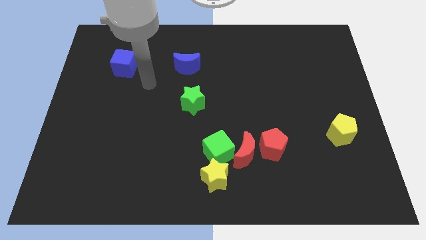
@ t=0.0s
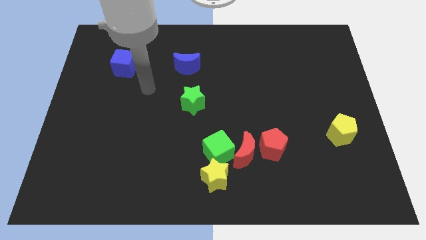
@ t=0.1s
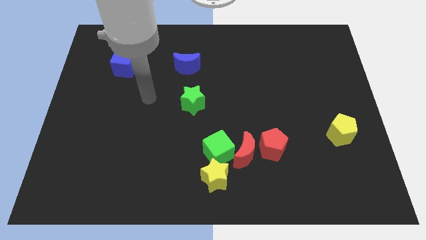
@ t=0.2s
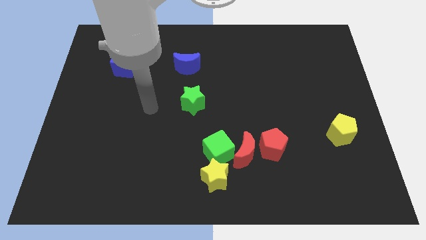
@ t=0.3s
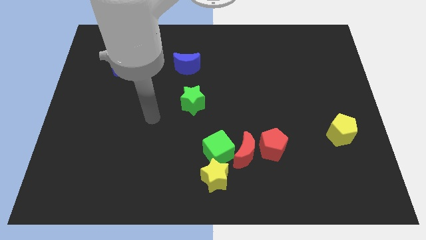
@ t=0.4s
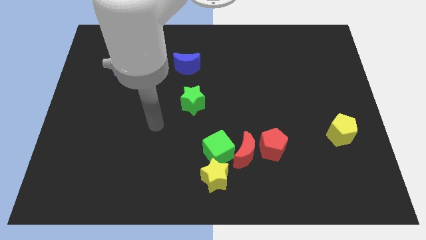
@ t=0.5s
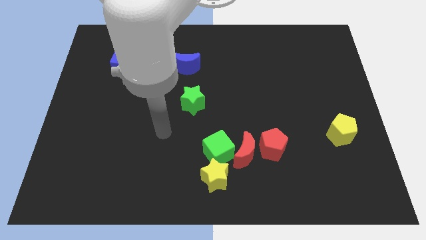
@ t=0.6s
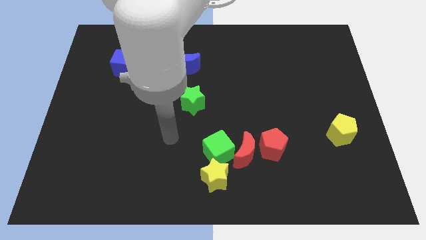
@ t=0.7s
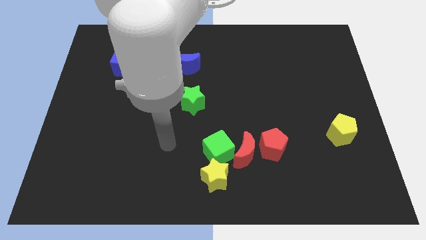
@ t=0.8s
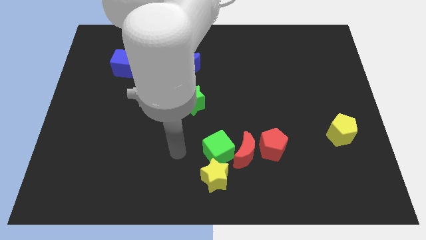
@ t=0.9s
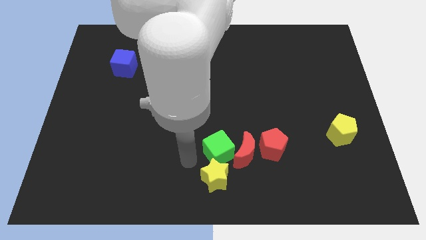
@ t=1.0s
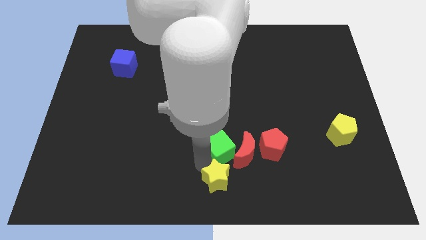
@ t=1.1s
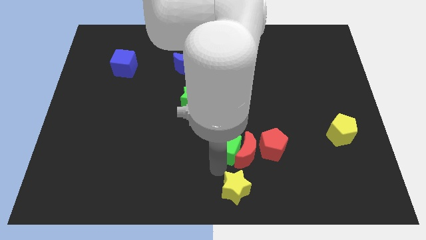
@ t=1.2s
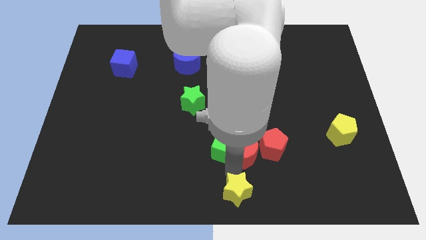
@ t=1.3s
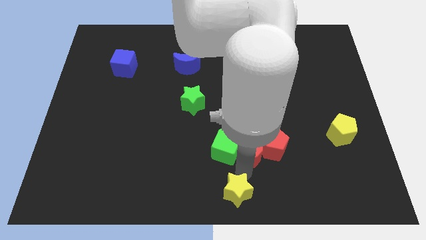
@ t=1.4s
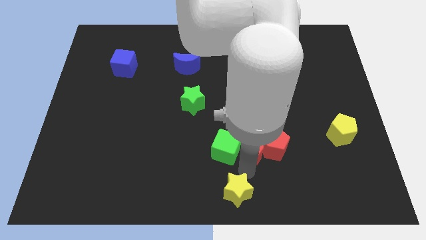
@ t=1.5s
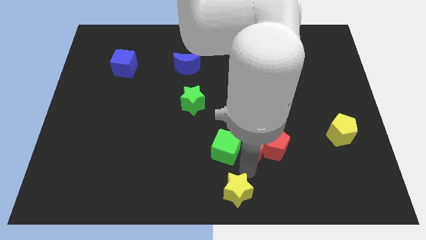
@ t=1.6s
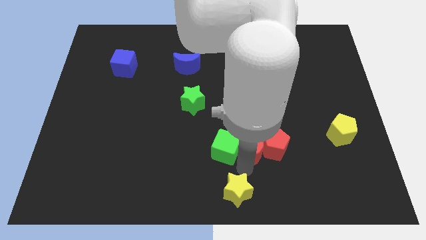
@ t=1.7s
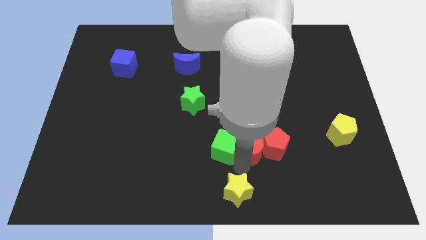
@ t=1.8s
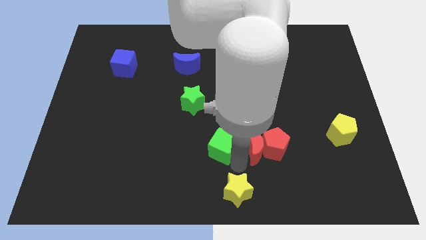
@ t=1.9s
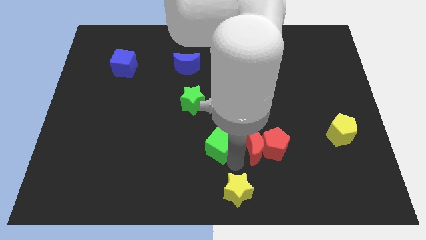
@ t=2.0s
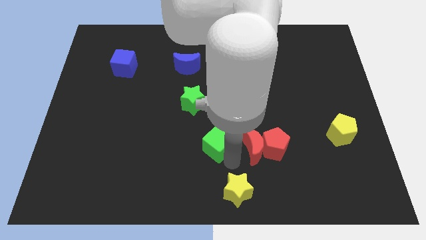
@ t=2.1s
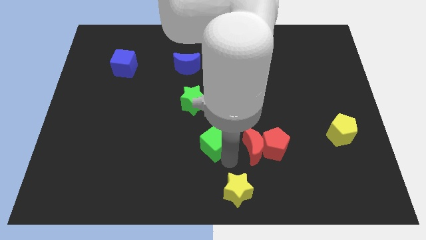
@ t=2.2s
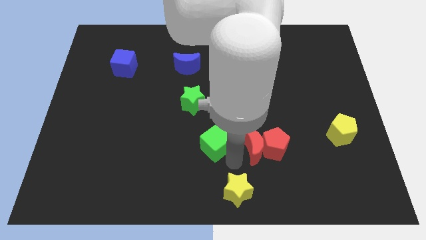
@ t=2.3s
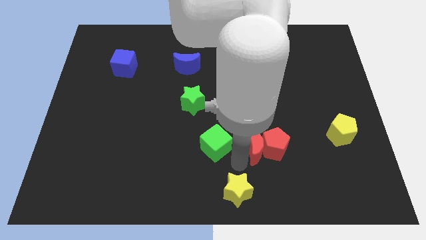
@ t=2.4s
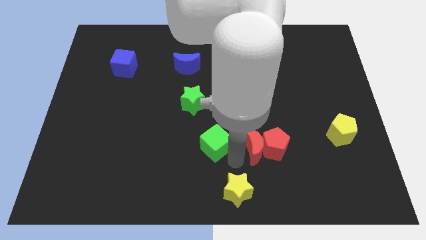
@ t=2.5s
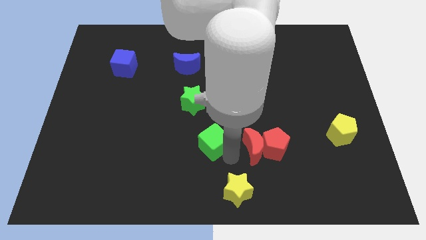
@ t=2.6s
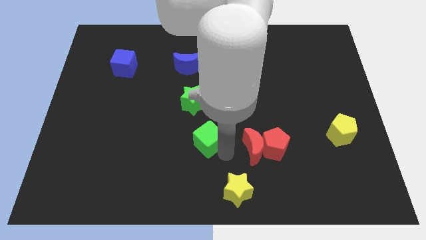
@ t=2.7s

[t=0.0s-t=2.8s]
move the green cube away from the red moon and yellow star

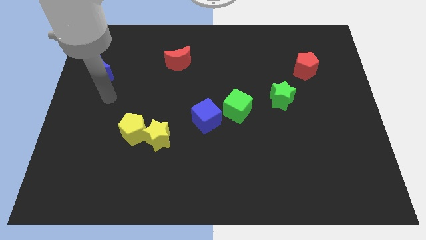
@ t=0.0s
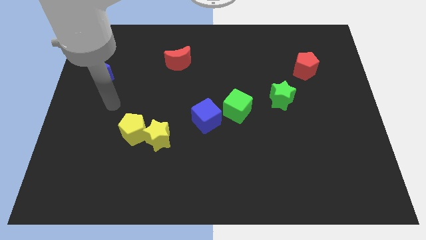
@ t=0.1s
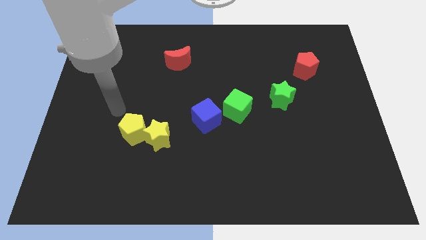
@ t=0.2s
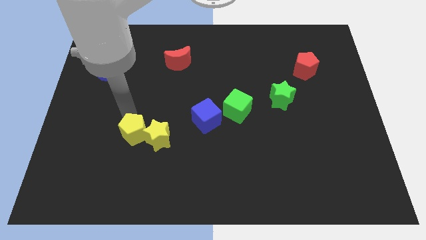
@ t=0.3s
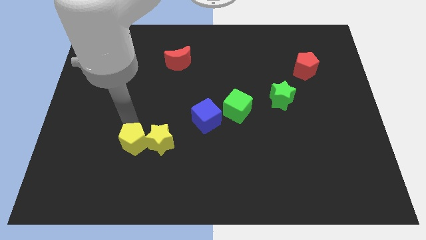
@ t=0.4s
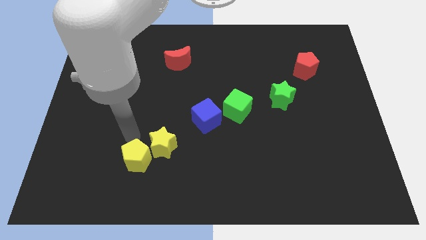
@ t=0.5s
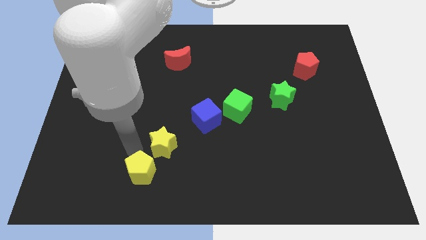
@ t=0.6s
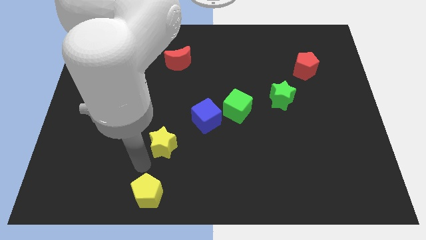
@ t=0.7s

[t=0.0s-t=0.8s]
pull the yellow star apart from the yellow pentagon

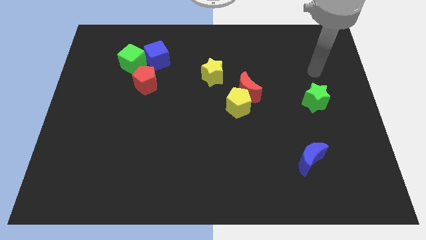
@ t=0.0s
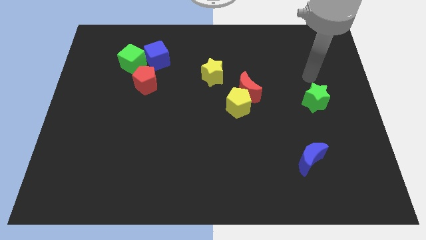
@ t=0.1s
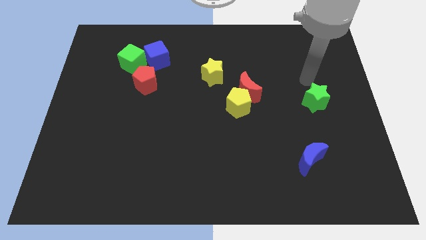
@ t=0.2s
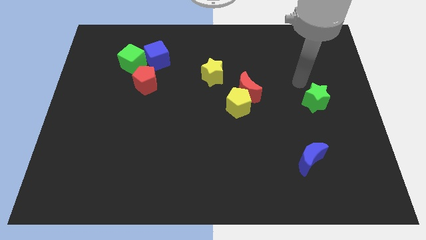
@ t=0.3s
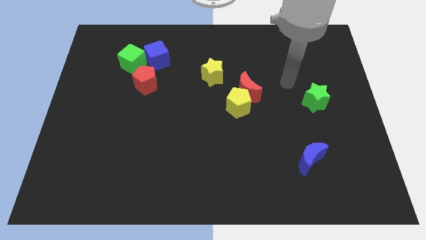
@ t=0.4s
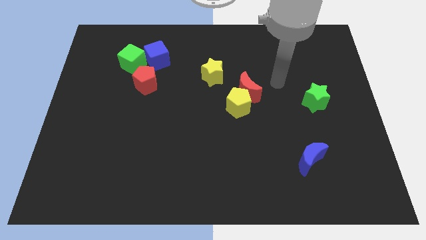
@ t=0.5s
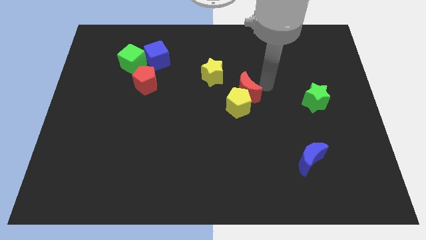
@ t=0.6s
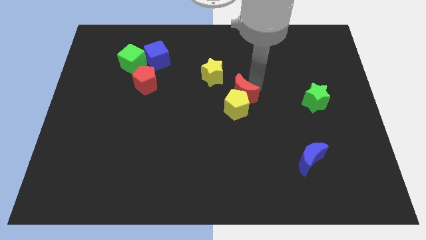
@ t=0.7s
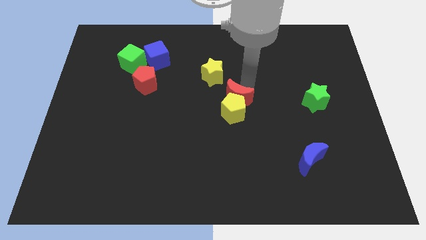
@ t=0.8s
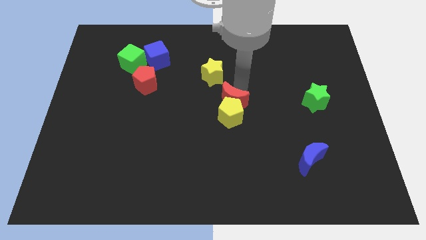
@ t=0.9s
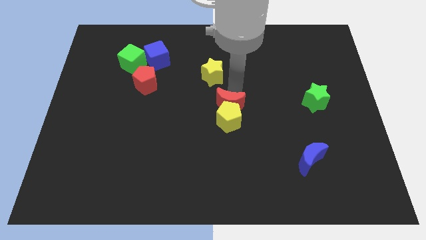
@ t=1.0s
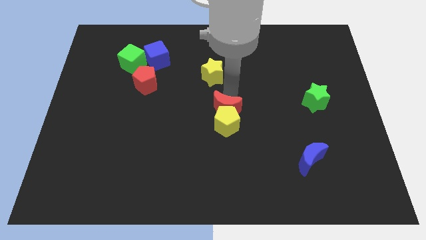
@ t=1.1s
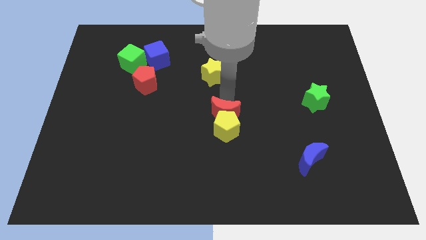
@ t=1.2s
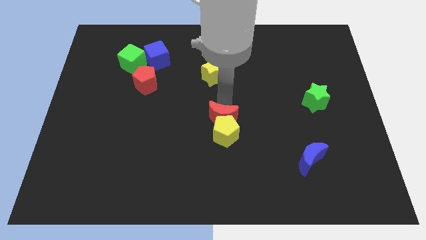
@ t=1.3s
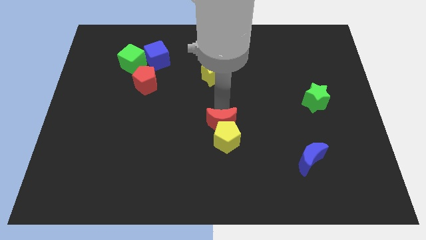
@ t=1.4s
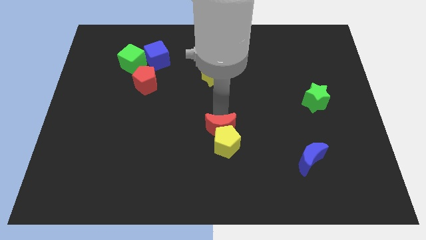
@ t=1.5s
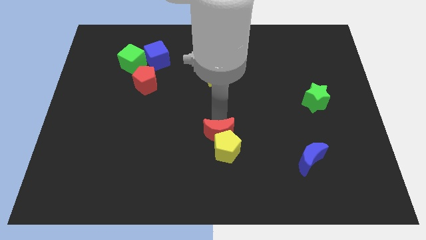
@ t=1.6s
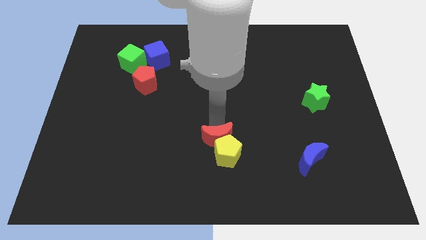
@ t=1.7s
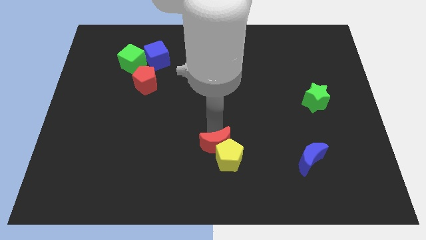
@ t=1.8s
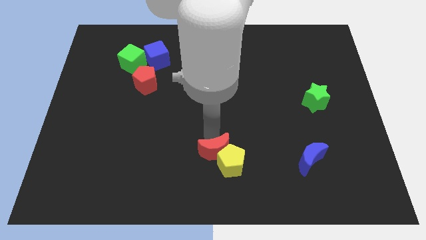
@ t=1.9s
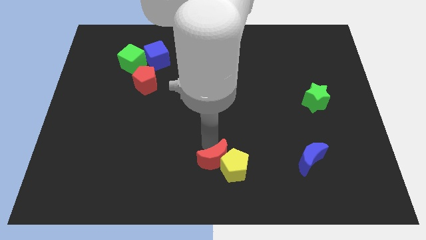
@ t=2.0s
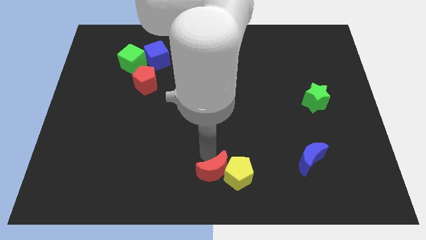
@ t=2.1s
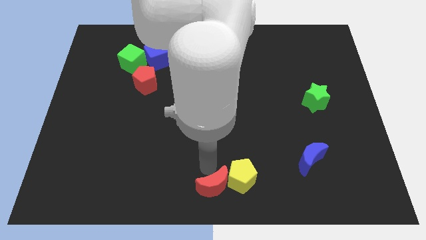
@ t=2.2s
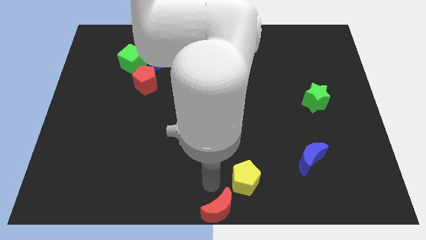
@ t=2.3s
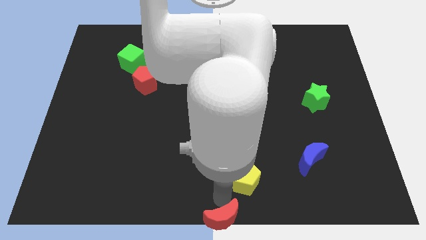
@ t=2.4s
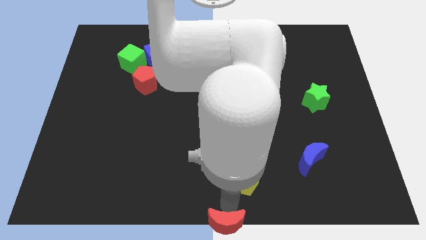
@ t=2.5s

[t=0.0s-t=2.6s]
move the yellow pentagon away from the red moon

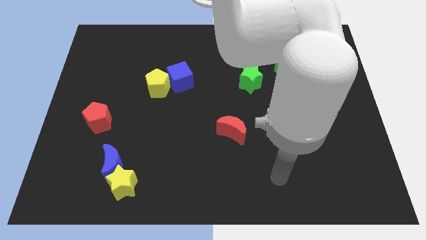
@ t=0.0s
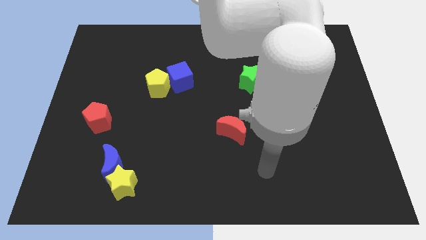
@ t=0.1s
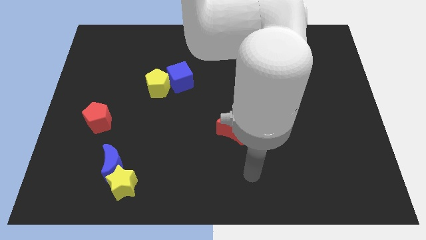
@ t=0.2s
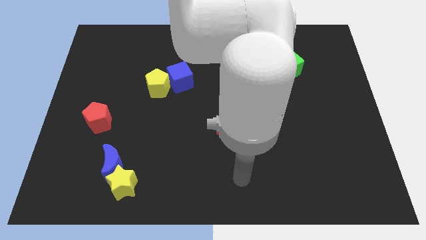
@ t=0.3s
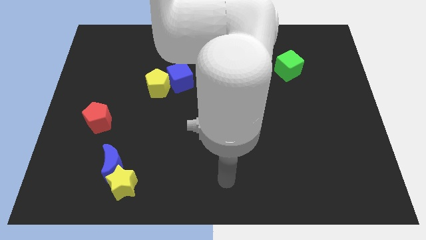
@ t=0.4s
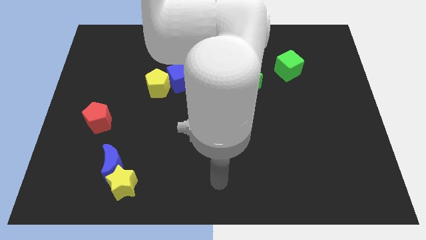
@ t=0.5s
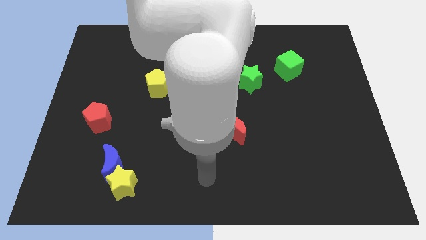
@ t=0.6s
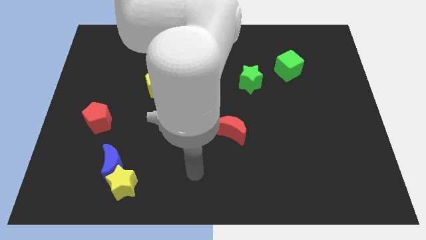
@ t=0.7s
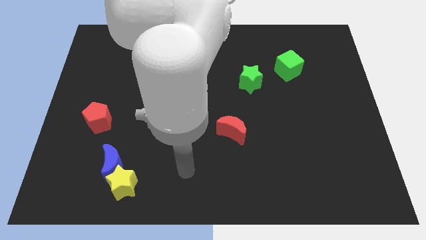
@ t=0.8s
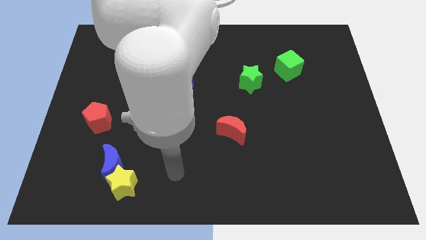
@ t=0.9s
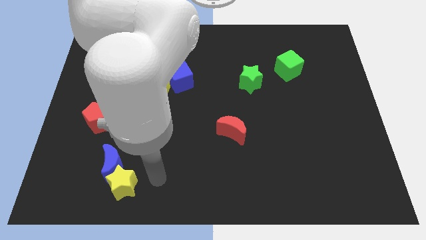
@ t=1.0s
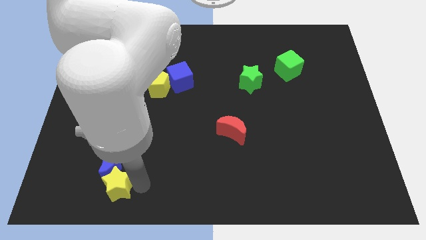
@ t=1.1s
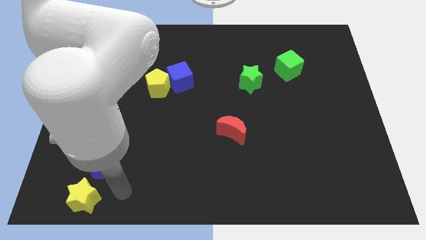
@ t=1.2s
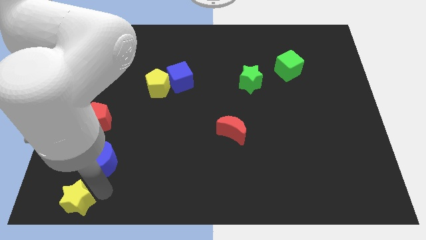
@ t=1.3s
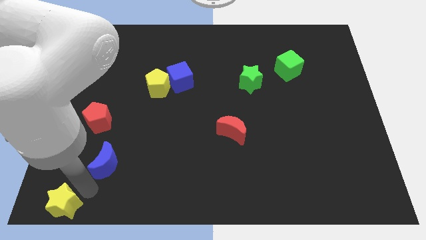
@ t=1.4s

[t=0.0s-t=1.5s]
pull the blue moon apart from the yellow star

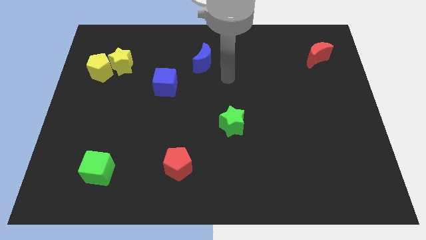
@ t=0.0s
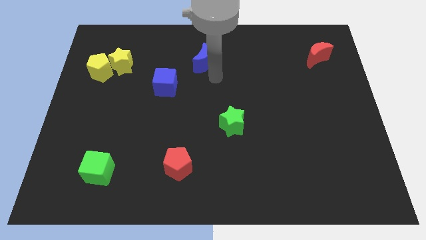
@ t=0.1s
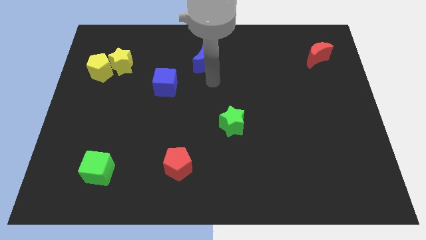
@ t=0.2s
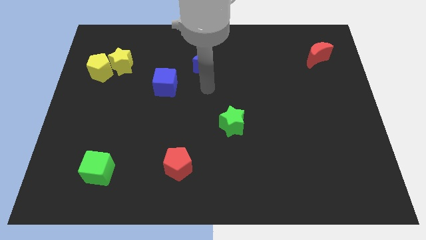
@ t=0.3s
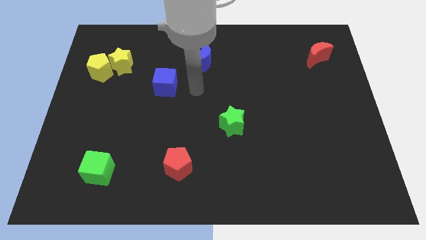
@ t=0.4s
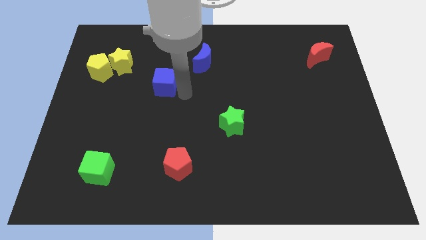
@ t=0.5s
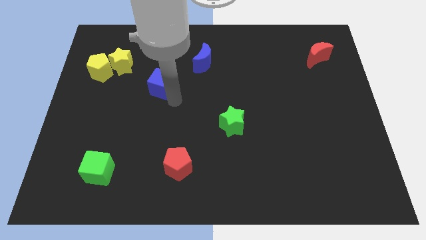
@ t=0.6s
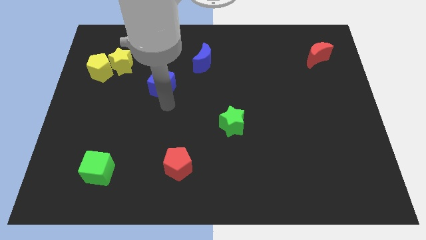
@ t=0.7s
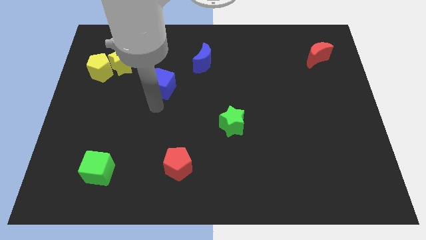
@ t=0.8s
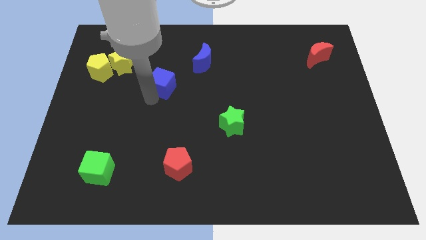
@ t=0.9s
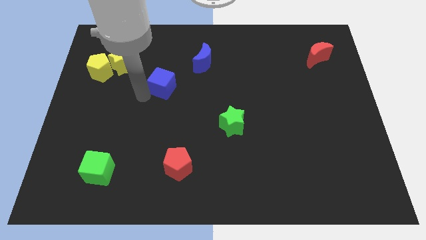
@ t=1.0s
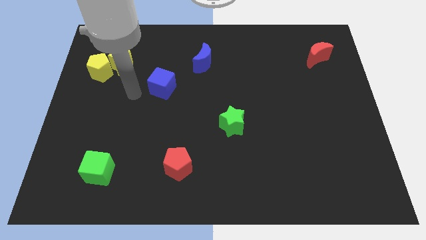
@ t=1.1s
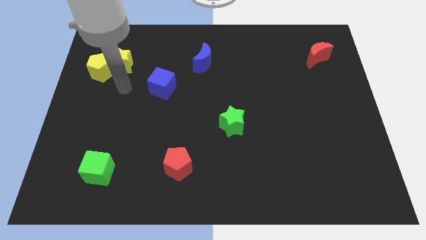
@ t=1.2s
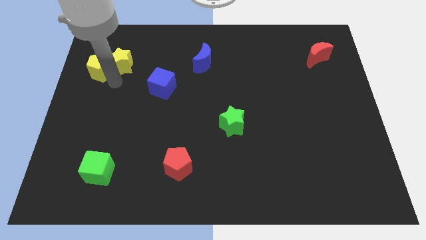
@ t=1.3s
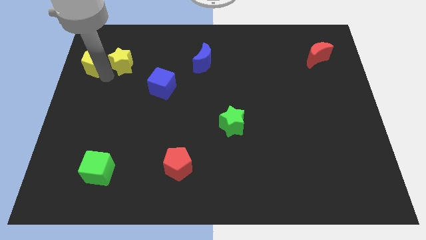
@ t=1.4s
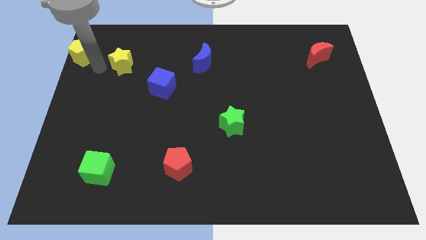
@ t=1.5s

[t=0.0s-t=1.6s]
separate the yellow star from the yellow pentagon
